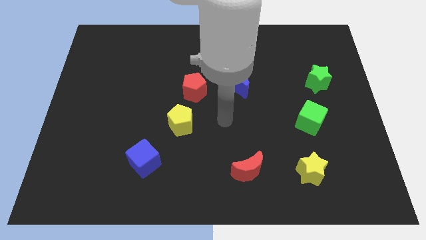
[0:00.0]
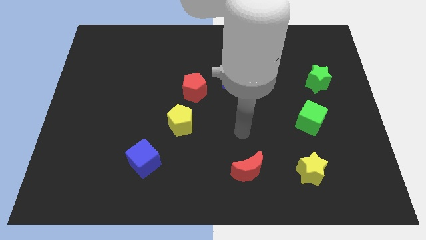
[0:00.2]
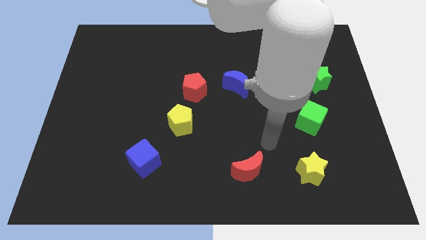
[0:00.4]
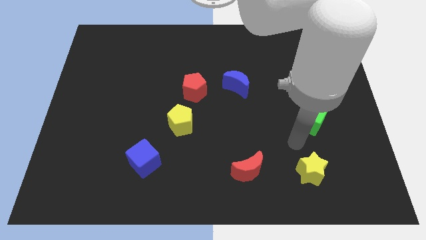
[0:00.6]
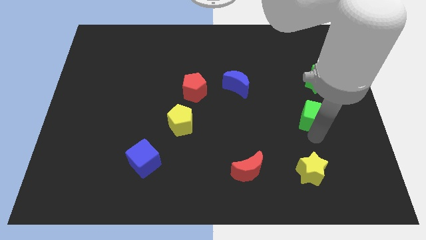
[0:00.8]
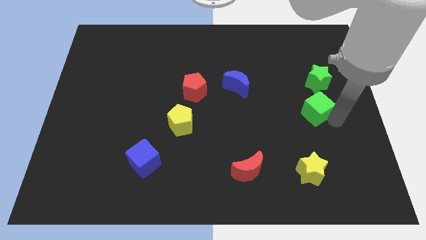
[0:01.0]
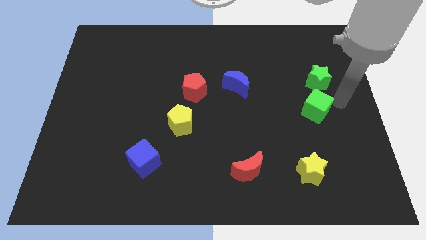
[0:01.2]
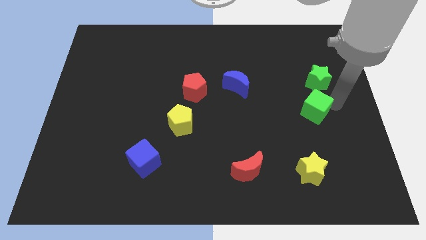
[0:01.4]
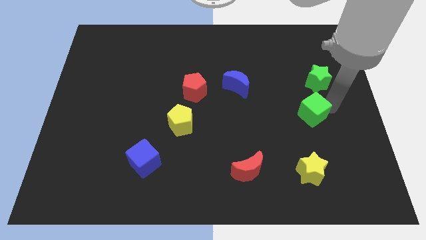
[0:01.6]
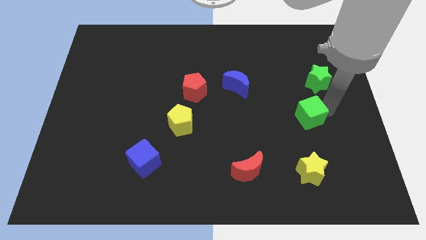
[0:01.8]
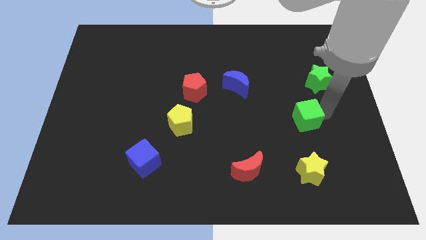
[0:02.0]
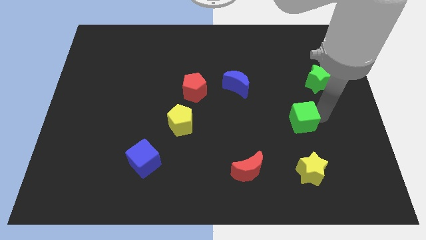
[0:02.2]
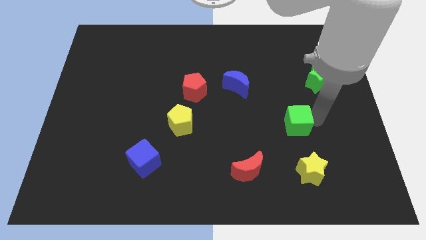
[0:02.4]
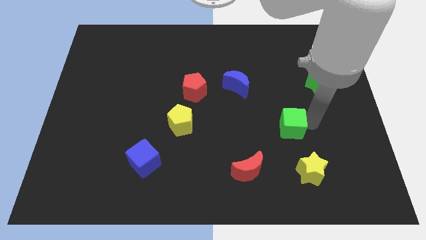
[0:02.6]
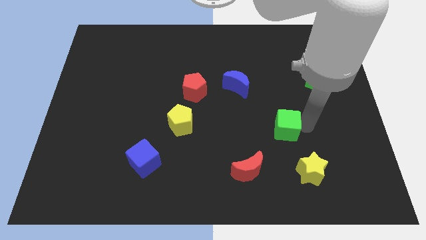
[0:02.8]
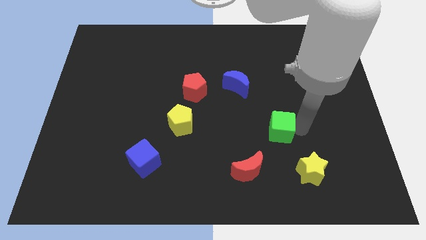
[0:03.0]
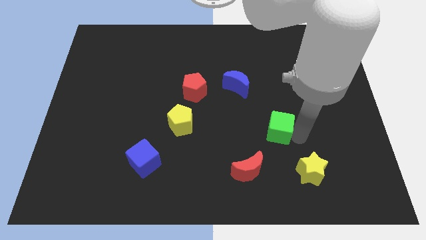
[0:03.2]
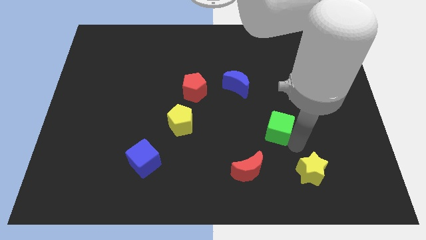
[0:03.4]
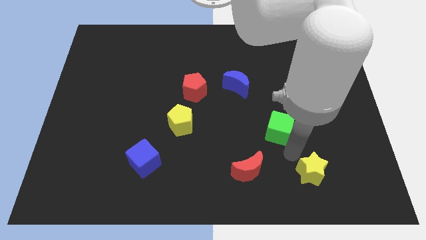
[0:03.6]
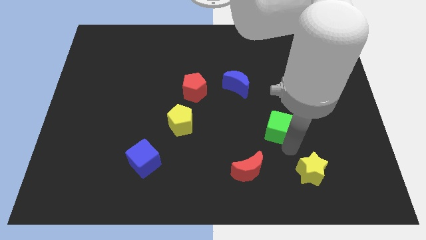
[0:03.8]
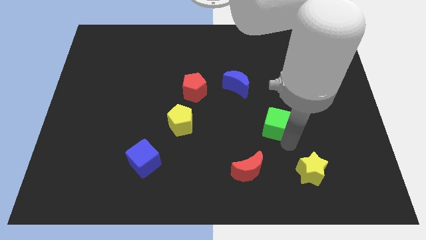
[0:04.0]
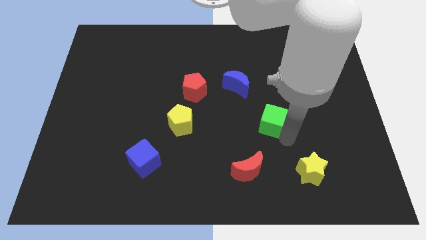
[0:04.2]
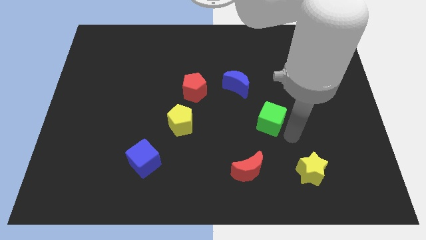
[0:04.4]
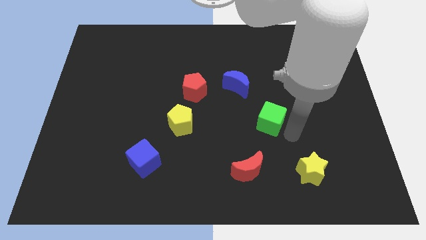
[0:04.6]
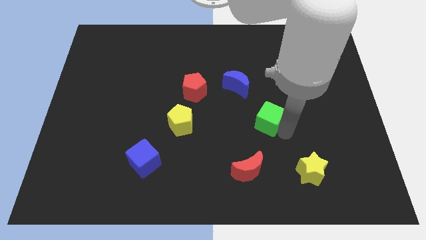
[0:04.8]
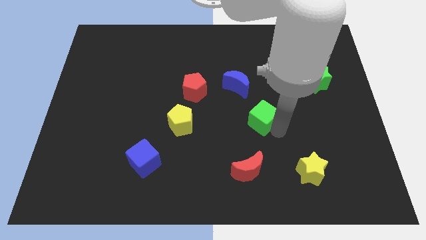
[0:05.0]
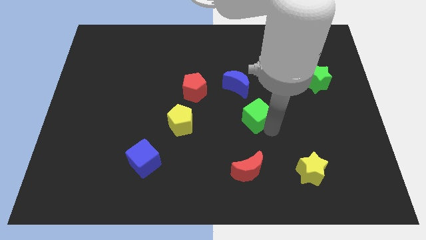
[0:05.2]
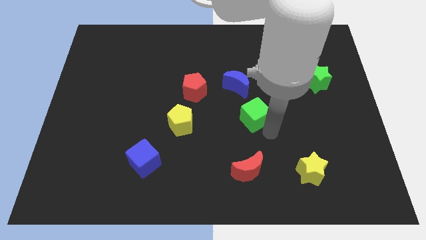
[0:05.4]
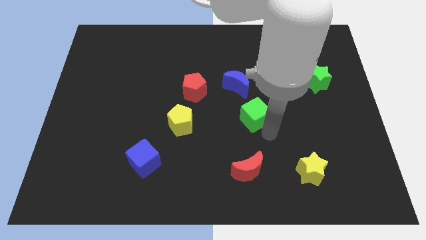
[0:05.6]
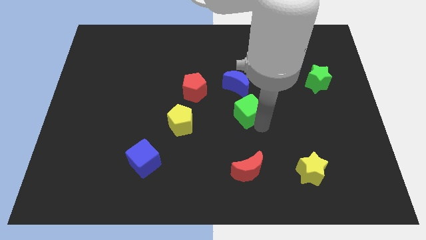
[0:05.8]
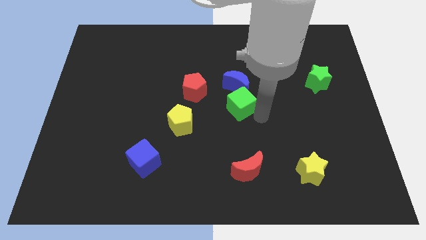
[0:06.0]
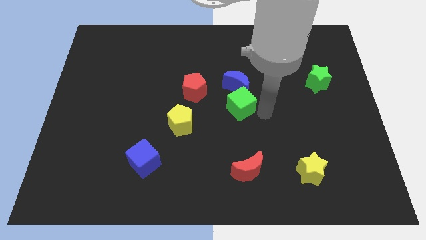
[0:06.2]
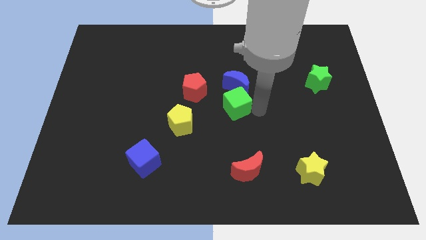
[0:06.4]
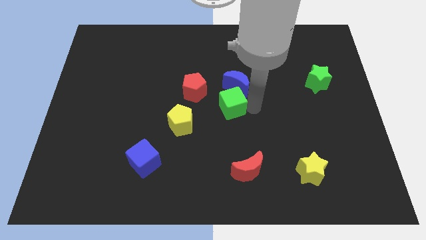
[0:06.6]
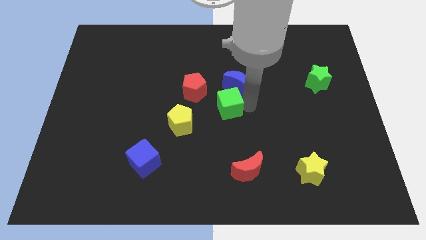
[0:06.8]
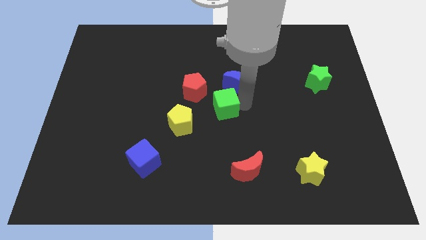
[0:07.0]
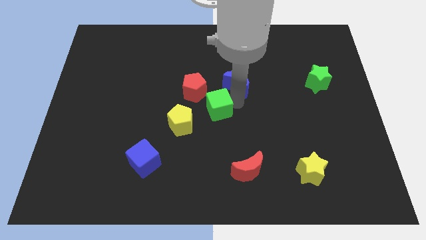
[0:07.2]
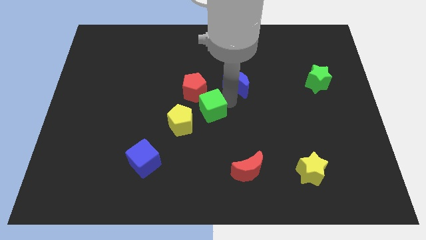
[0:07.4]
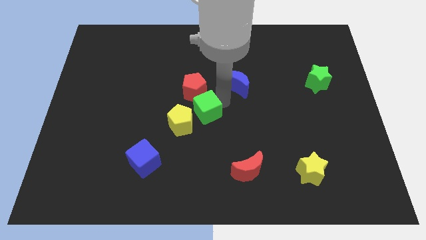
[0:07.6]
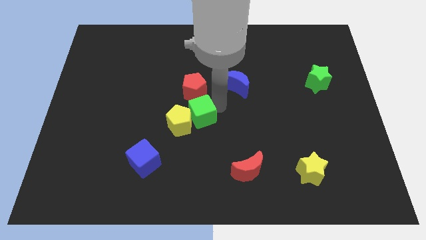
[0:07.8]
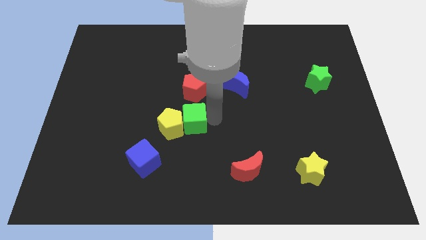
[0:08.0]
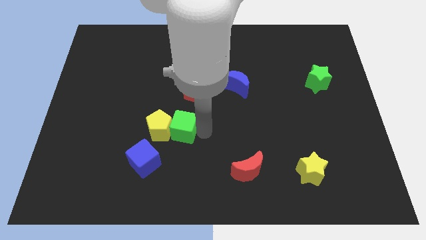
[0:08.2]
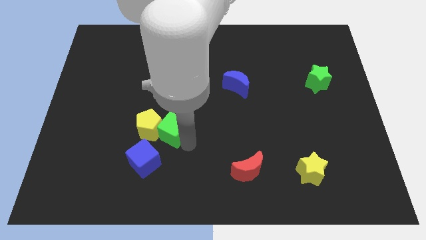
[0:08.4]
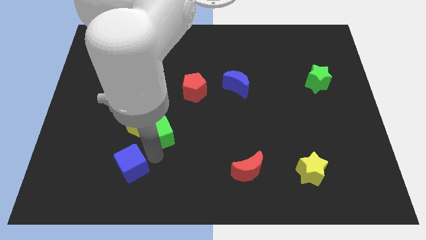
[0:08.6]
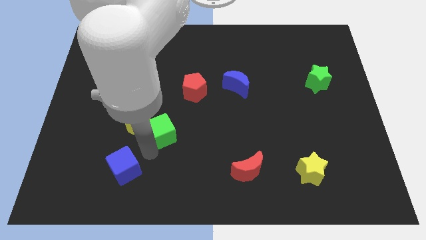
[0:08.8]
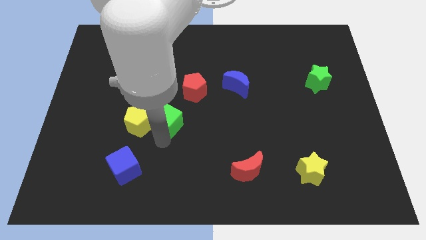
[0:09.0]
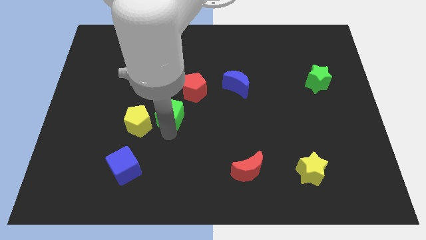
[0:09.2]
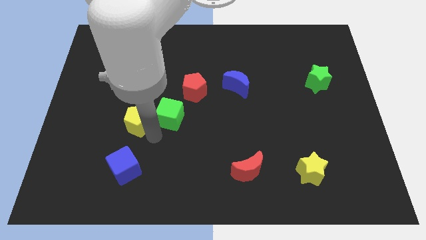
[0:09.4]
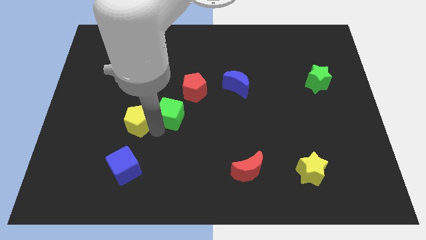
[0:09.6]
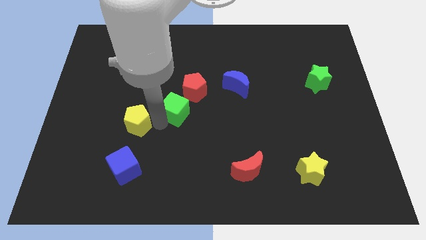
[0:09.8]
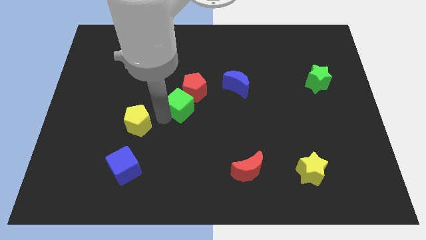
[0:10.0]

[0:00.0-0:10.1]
slide the green cube to the red pentagon

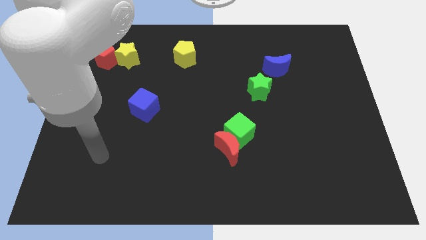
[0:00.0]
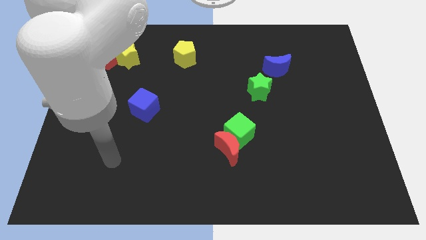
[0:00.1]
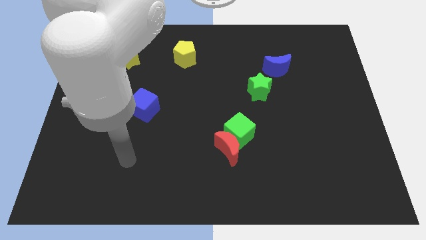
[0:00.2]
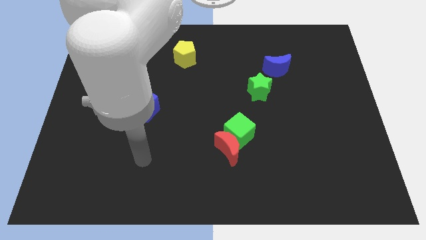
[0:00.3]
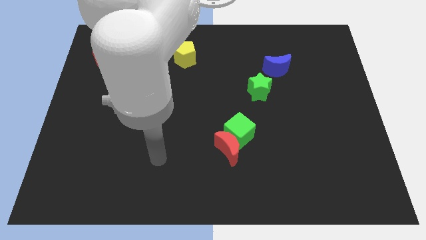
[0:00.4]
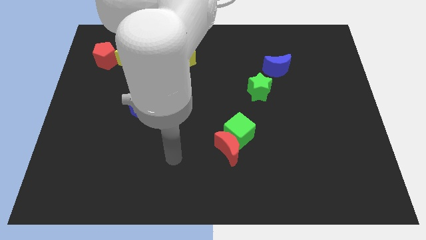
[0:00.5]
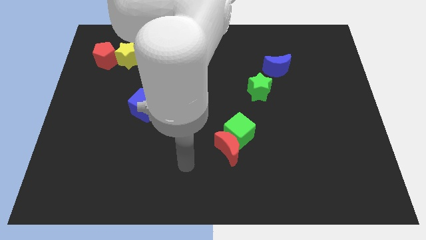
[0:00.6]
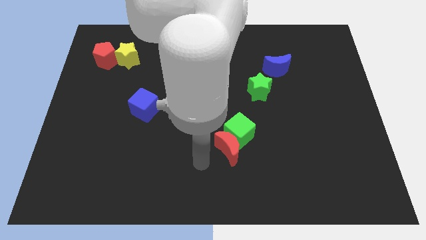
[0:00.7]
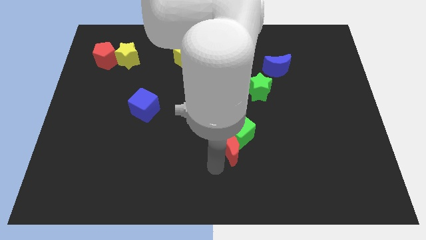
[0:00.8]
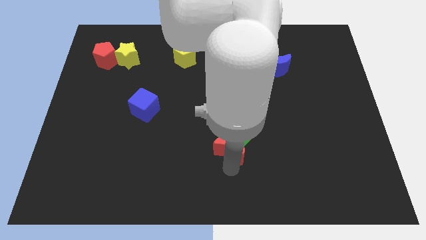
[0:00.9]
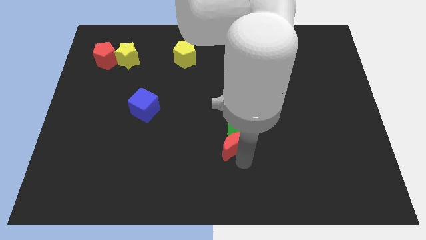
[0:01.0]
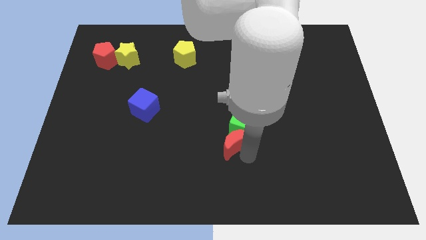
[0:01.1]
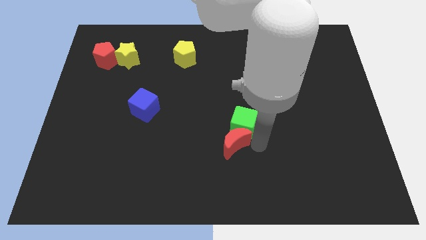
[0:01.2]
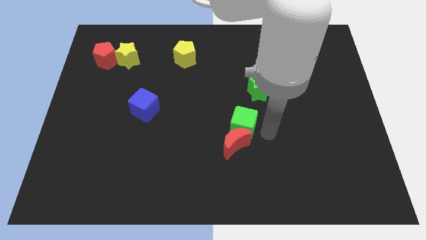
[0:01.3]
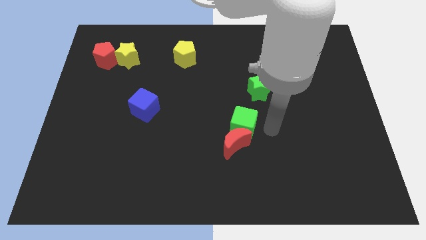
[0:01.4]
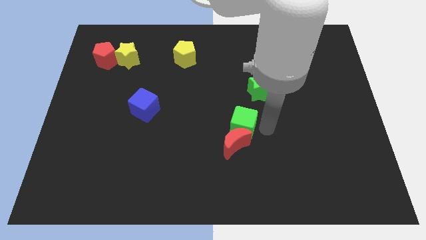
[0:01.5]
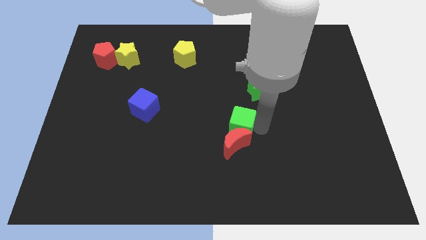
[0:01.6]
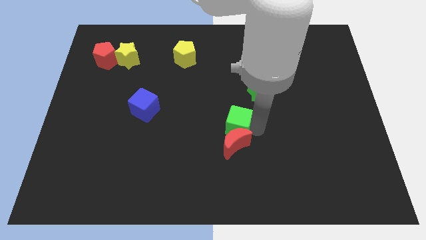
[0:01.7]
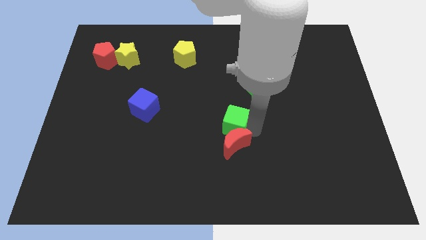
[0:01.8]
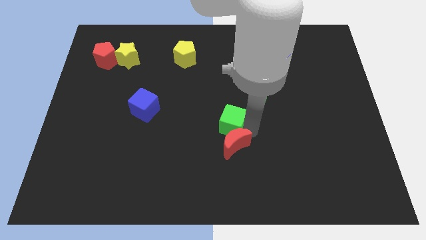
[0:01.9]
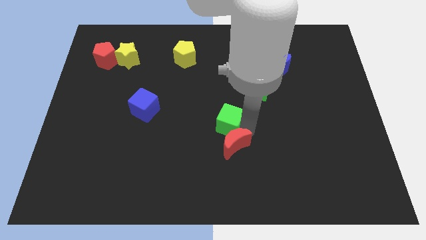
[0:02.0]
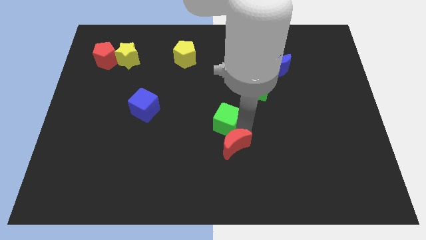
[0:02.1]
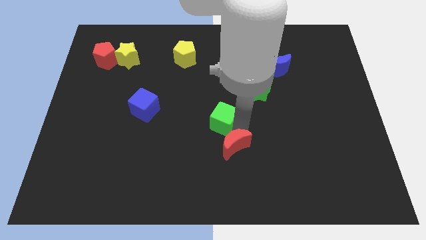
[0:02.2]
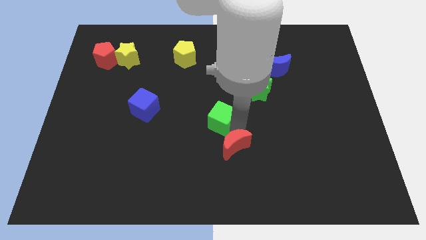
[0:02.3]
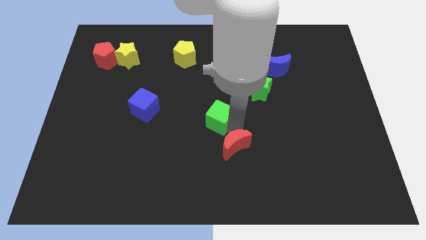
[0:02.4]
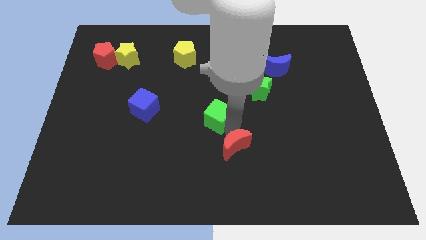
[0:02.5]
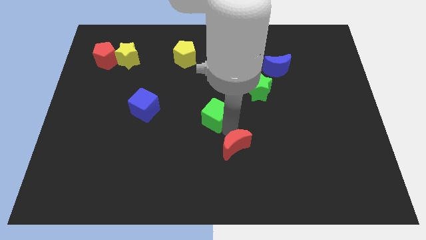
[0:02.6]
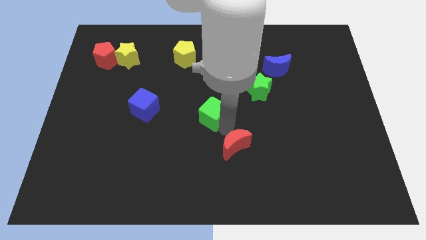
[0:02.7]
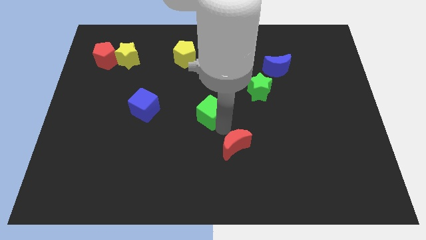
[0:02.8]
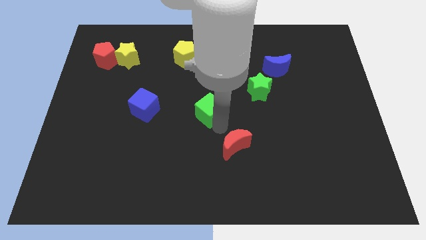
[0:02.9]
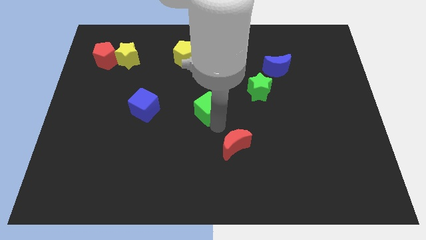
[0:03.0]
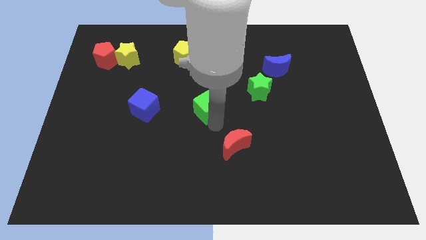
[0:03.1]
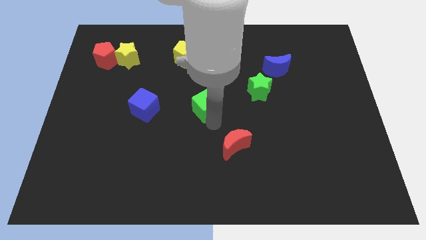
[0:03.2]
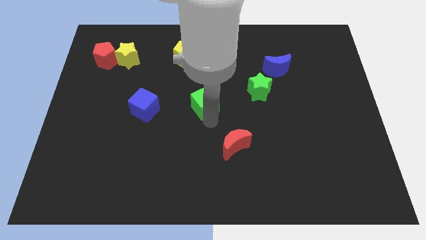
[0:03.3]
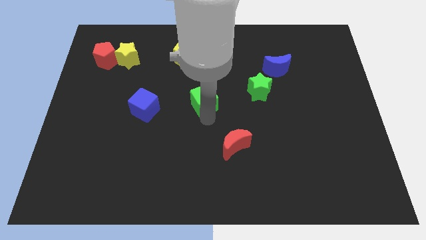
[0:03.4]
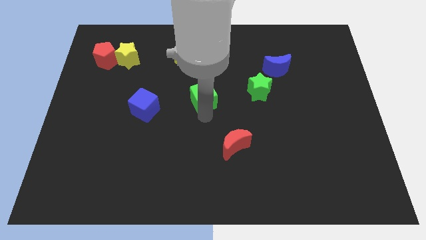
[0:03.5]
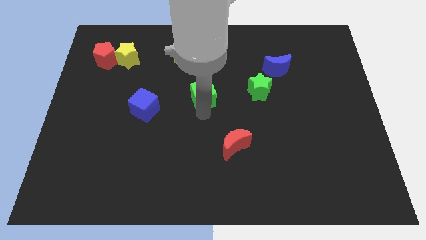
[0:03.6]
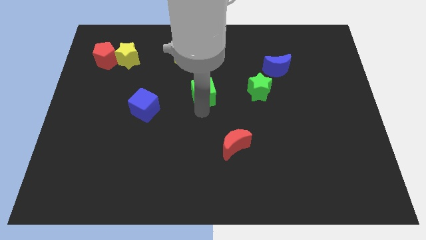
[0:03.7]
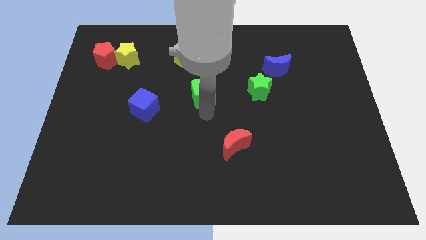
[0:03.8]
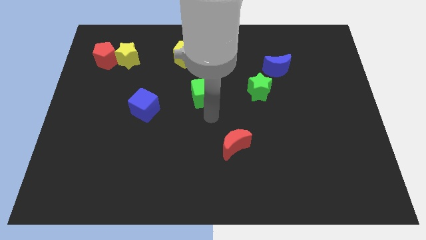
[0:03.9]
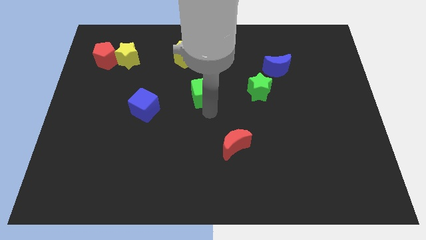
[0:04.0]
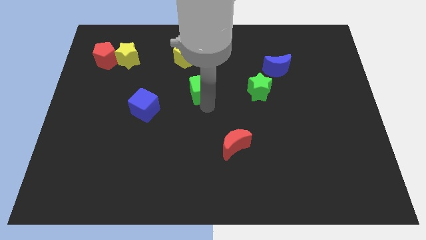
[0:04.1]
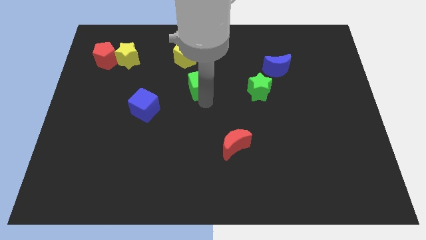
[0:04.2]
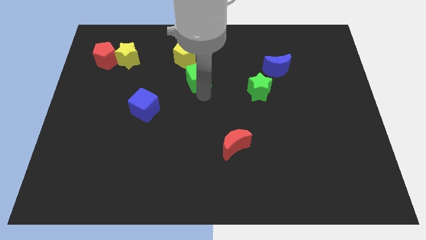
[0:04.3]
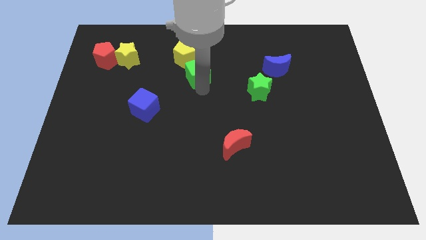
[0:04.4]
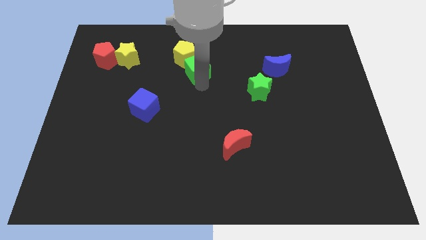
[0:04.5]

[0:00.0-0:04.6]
put the green cube close to the yellow pentagon
